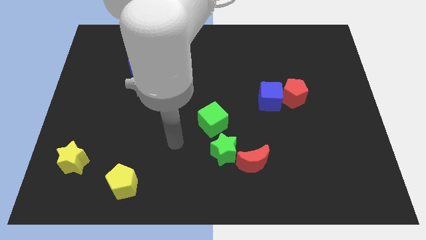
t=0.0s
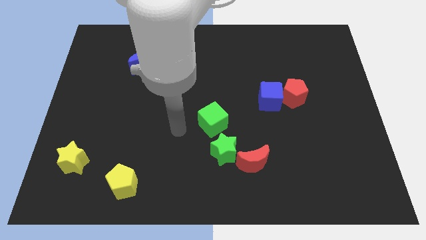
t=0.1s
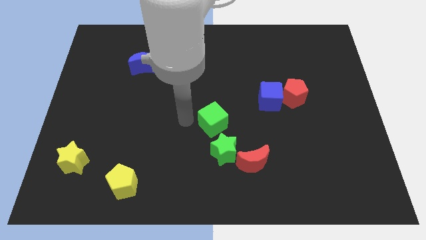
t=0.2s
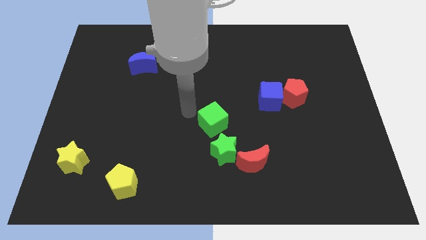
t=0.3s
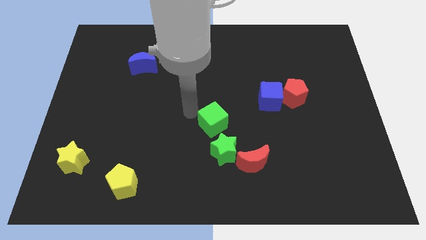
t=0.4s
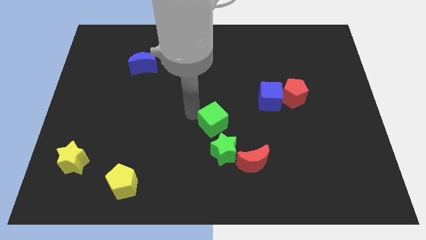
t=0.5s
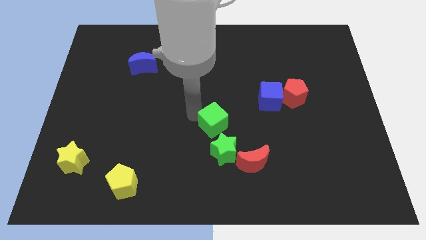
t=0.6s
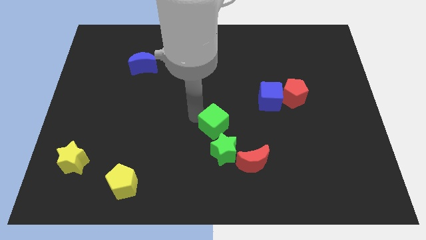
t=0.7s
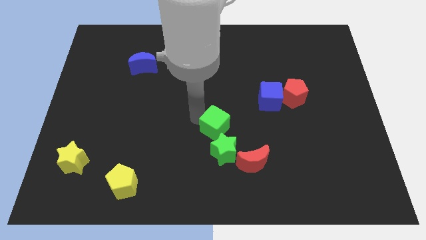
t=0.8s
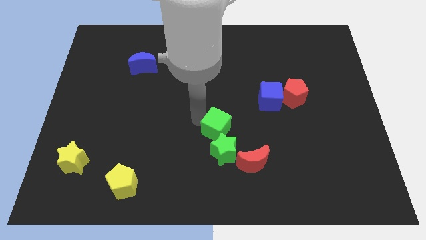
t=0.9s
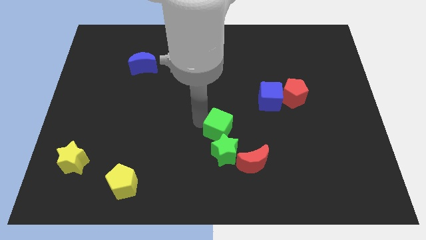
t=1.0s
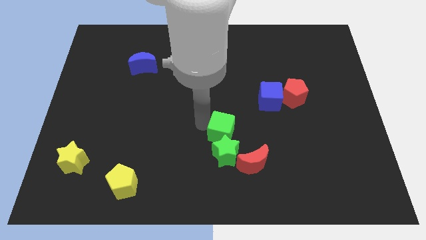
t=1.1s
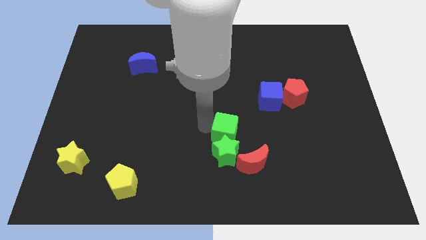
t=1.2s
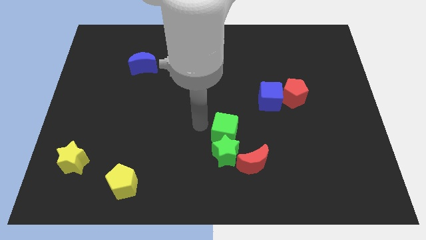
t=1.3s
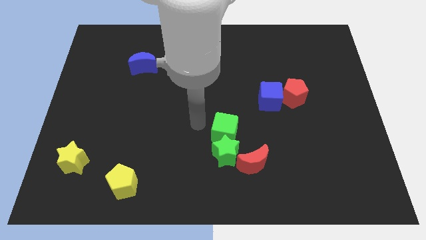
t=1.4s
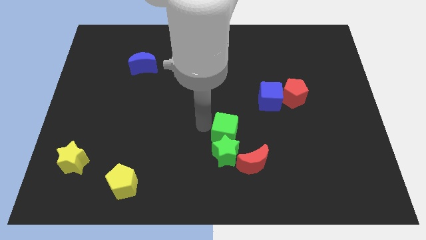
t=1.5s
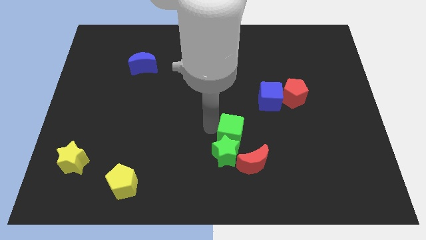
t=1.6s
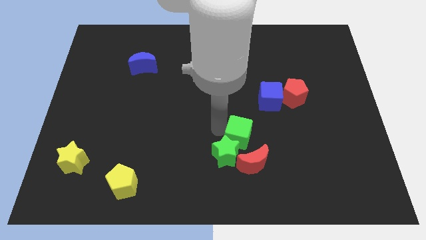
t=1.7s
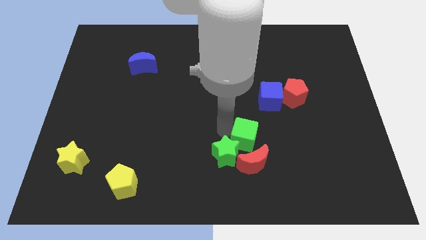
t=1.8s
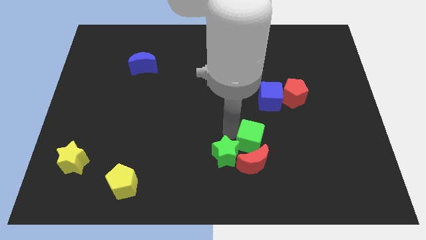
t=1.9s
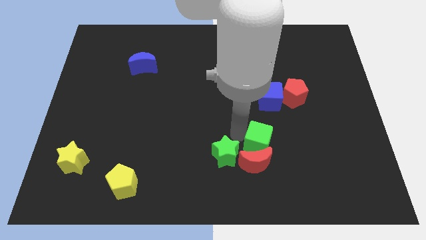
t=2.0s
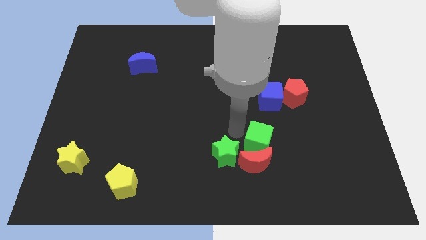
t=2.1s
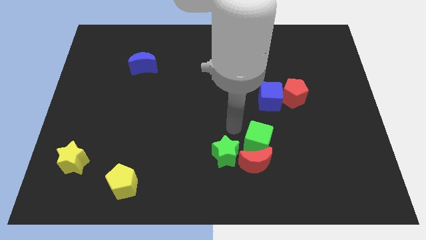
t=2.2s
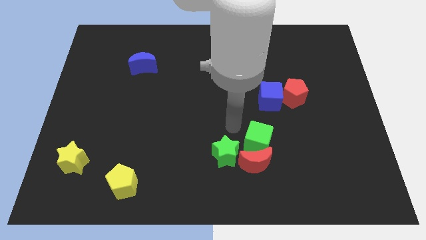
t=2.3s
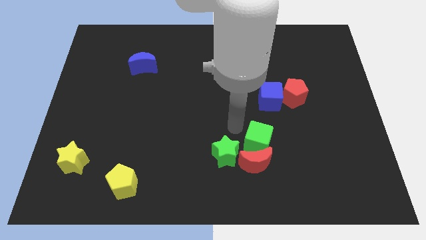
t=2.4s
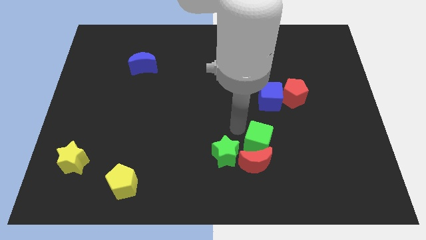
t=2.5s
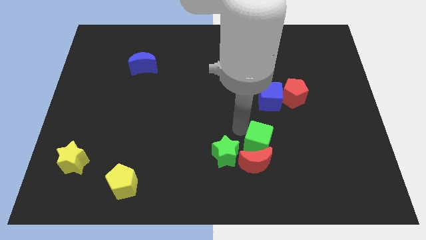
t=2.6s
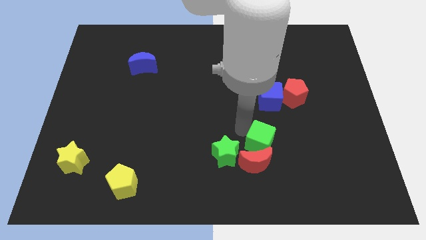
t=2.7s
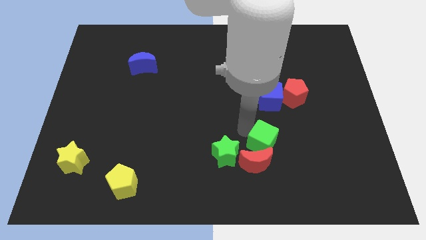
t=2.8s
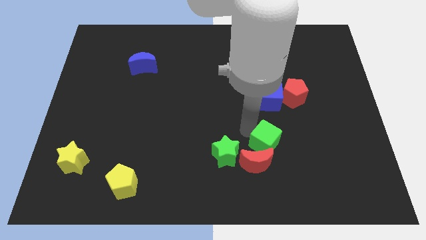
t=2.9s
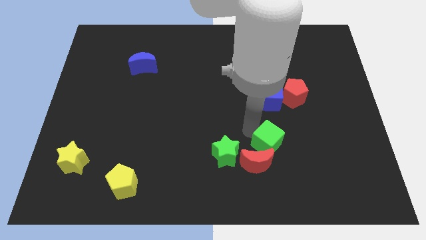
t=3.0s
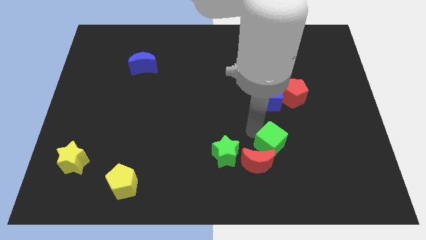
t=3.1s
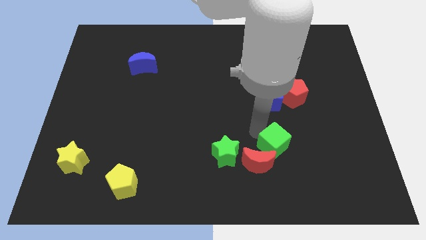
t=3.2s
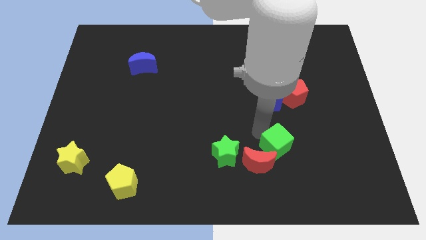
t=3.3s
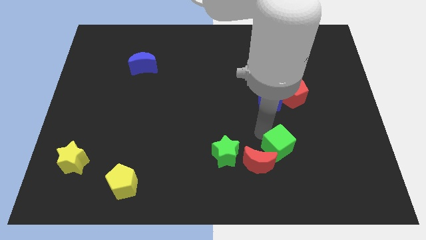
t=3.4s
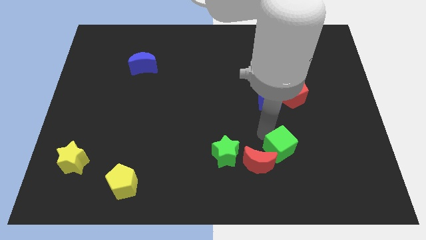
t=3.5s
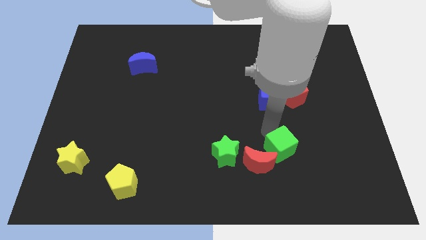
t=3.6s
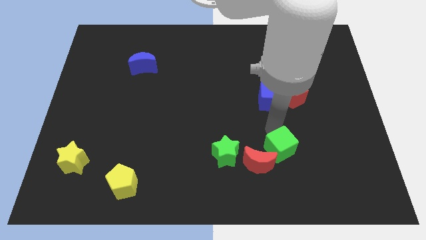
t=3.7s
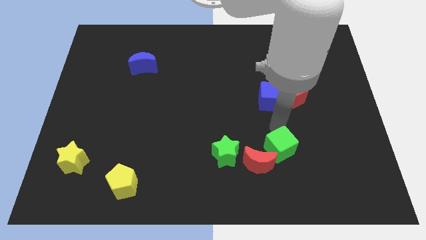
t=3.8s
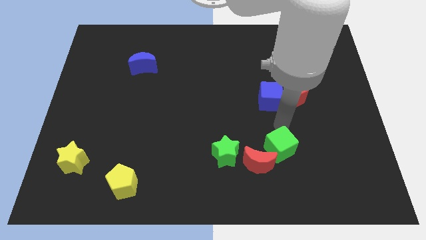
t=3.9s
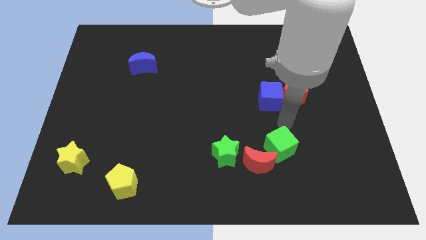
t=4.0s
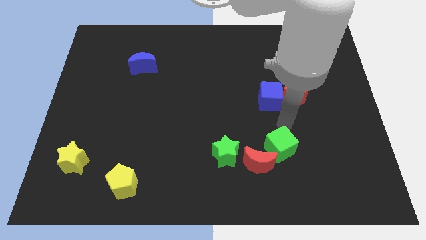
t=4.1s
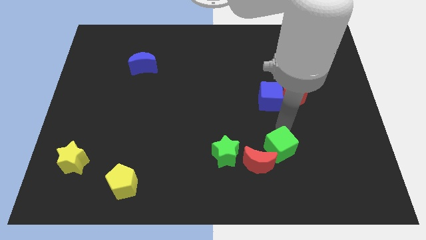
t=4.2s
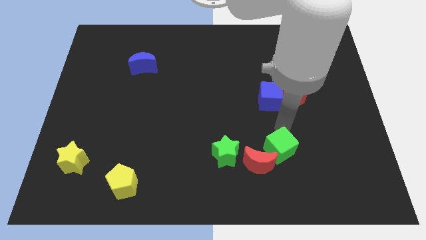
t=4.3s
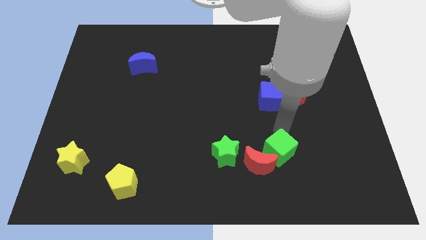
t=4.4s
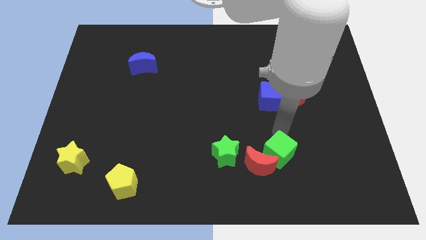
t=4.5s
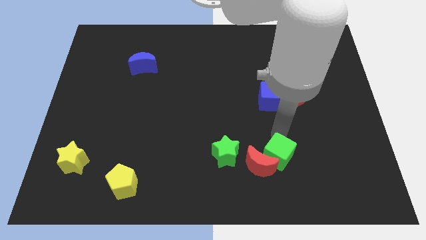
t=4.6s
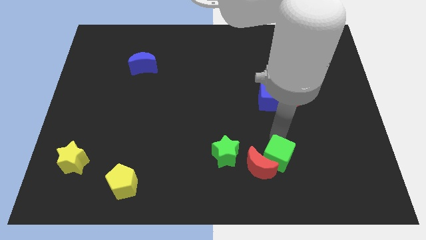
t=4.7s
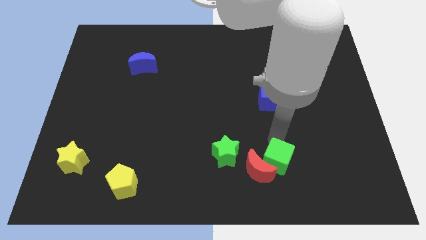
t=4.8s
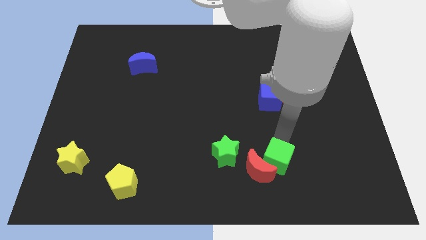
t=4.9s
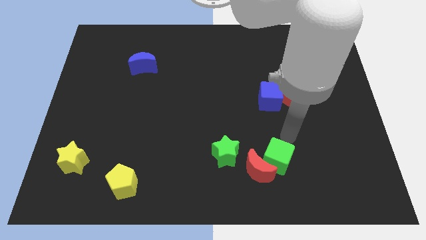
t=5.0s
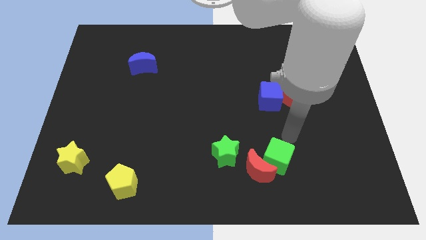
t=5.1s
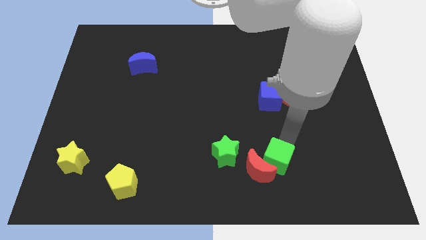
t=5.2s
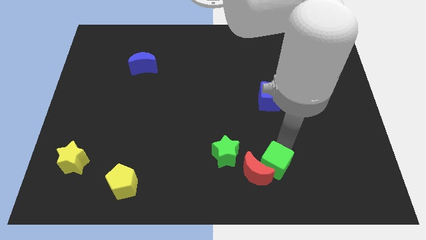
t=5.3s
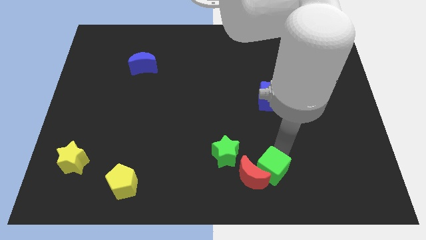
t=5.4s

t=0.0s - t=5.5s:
slide the green cube to the bottom right side of the green star

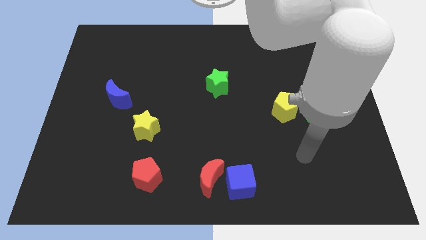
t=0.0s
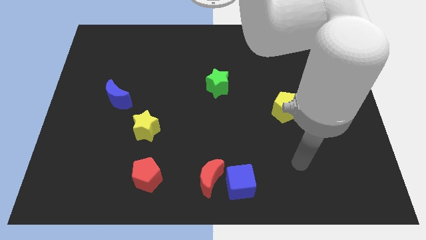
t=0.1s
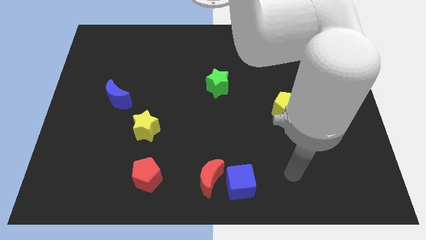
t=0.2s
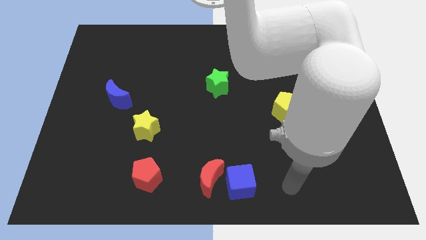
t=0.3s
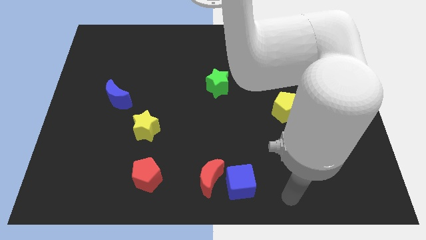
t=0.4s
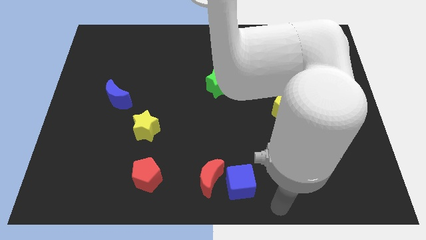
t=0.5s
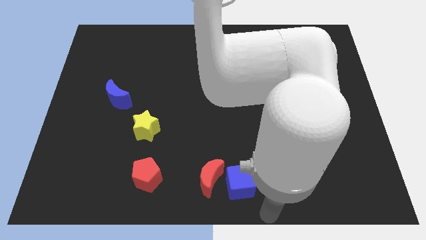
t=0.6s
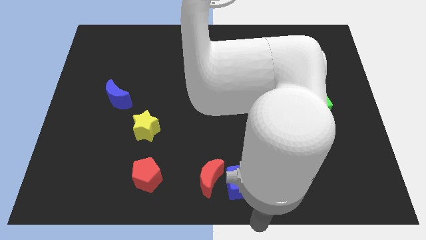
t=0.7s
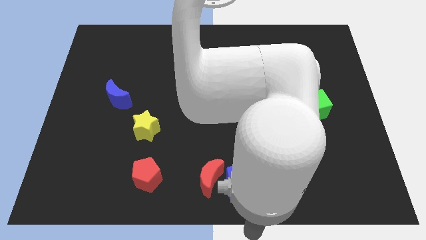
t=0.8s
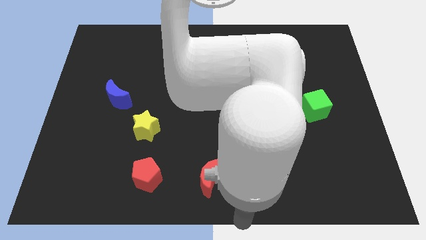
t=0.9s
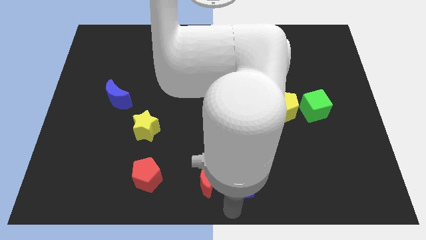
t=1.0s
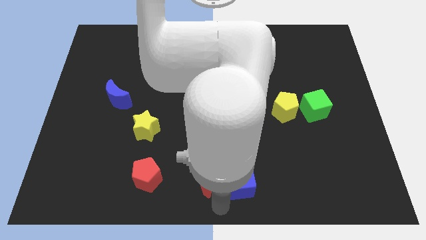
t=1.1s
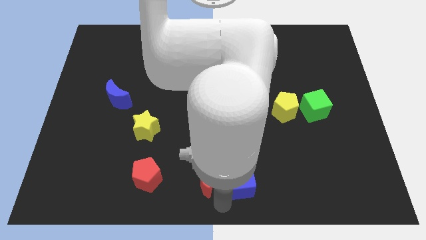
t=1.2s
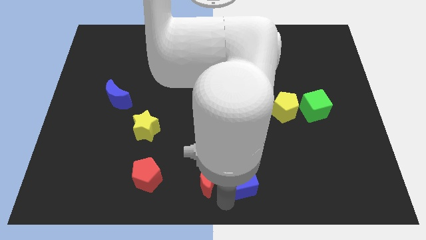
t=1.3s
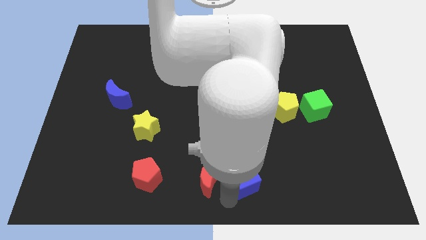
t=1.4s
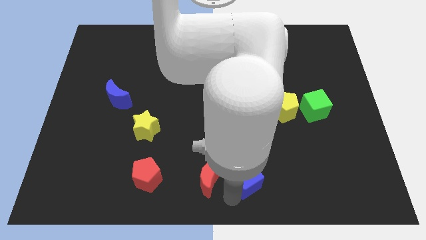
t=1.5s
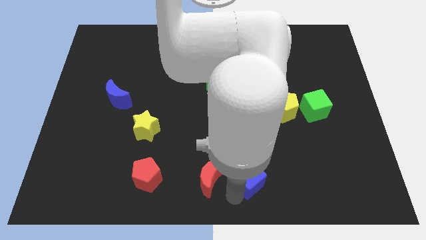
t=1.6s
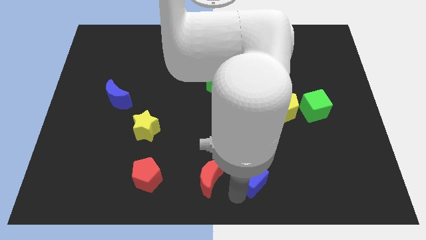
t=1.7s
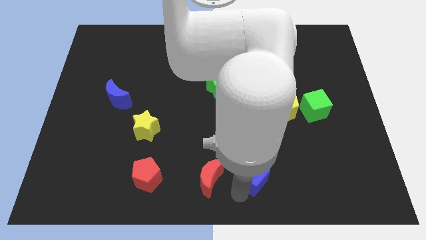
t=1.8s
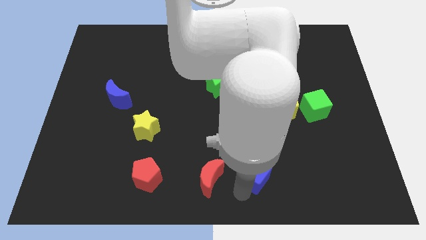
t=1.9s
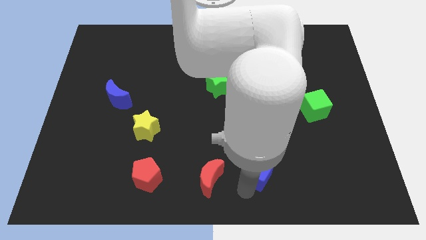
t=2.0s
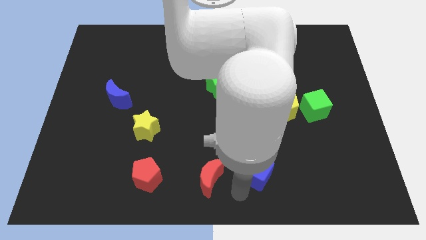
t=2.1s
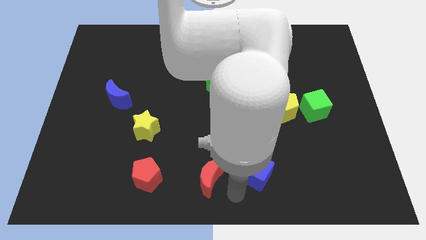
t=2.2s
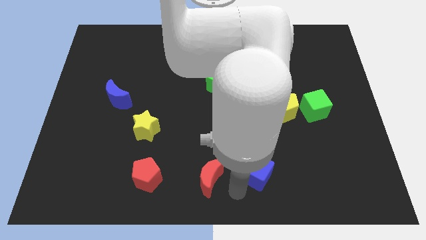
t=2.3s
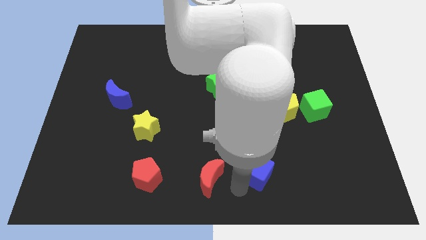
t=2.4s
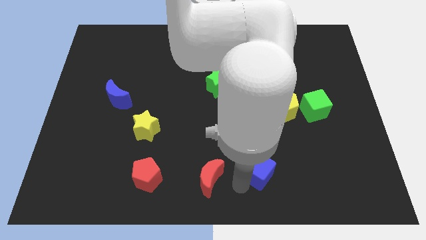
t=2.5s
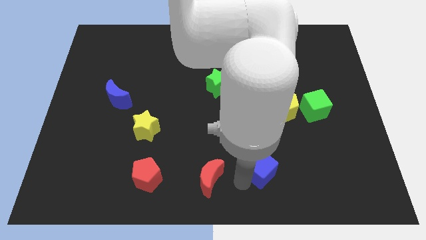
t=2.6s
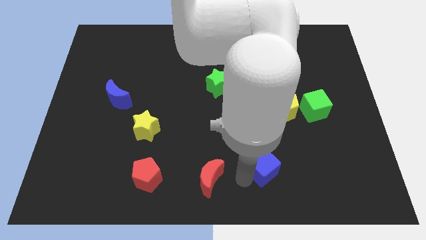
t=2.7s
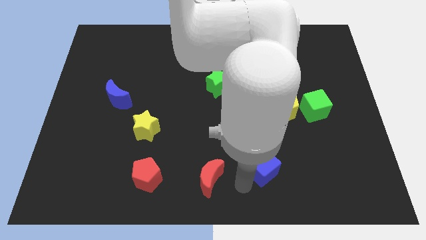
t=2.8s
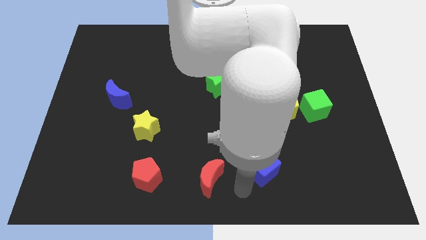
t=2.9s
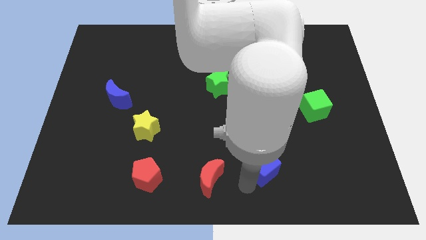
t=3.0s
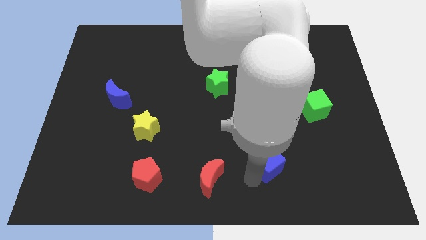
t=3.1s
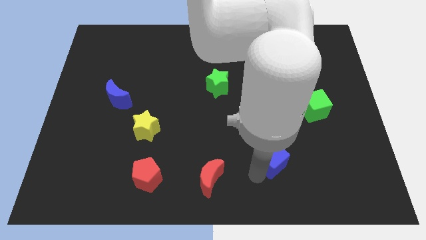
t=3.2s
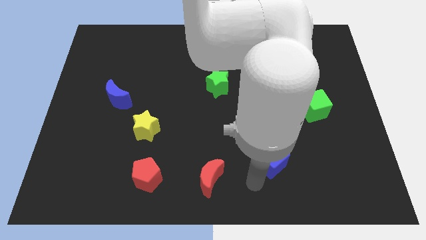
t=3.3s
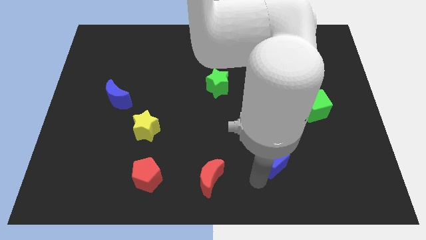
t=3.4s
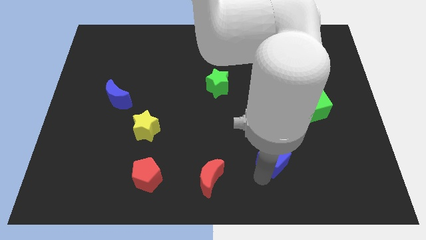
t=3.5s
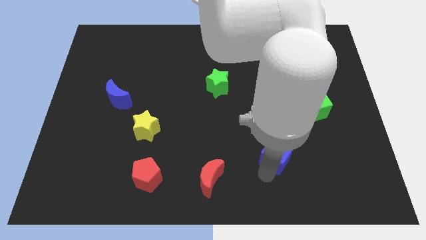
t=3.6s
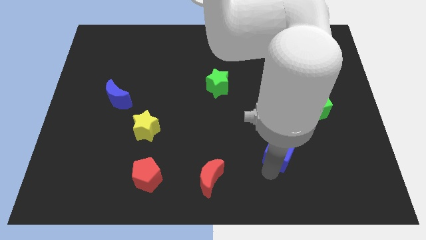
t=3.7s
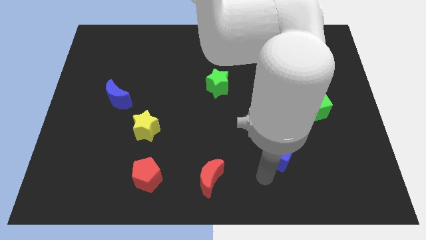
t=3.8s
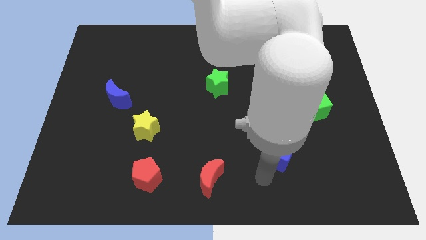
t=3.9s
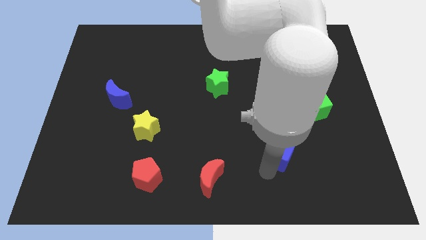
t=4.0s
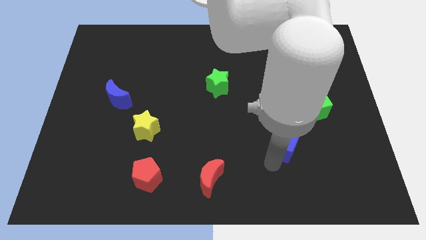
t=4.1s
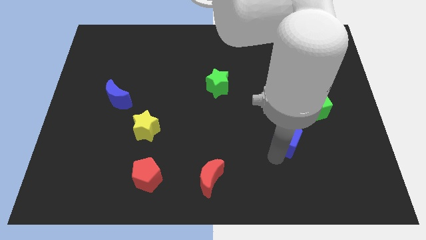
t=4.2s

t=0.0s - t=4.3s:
slide the blue cube to the bottom left of the green cube
